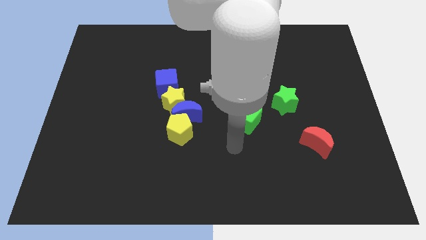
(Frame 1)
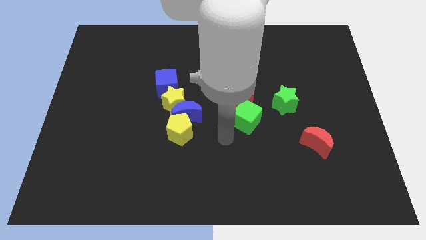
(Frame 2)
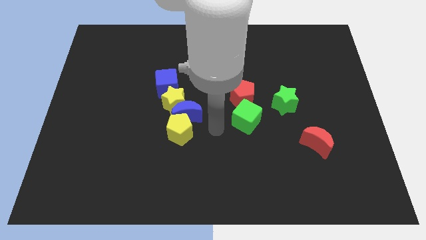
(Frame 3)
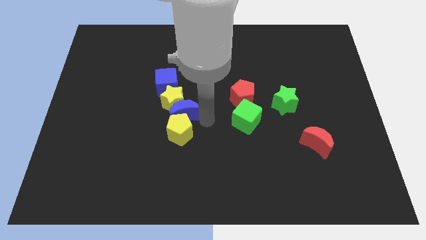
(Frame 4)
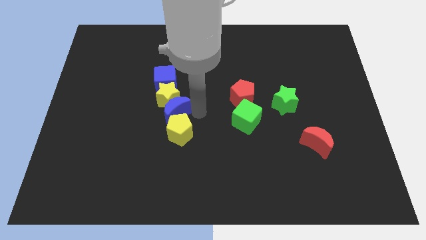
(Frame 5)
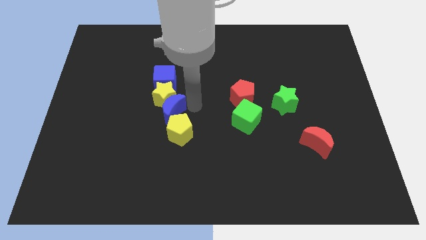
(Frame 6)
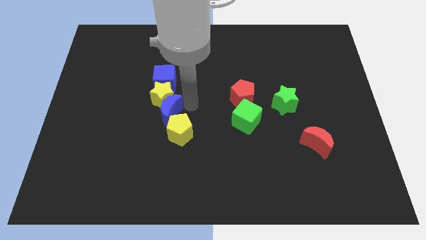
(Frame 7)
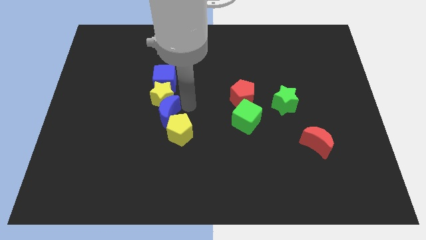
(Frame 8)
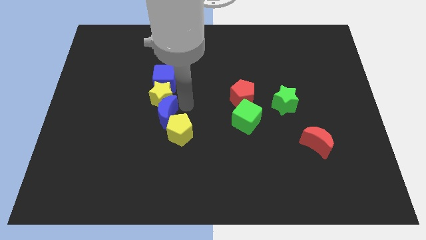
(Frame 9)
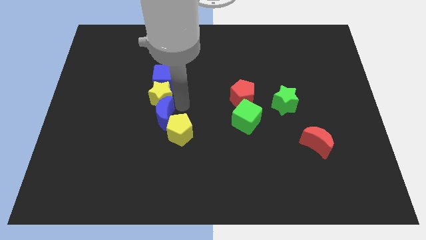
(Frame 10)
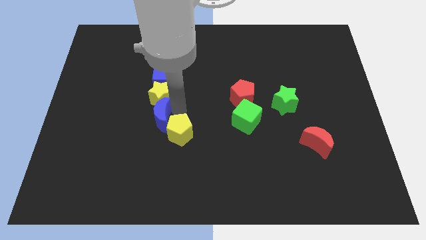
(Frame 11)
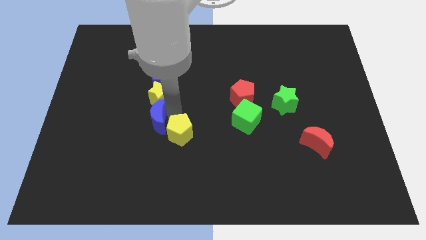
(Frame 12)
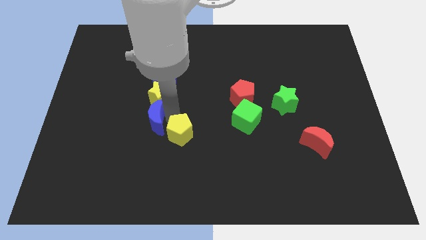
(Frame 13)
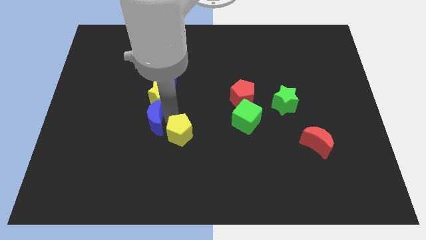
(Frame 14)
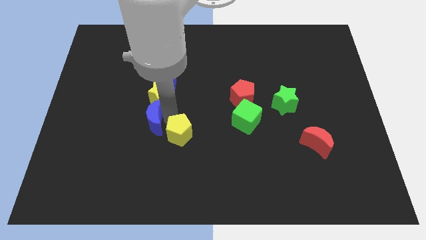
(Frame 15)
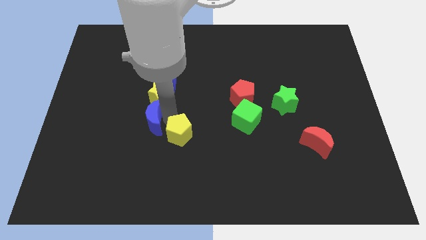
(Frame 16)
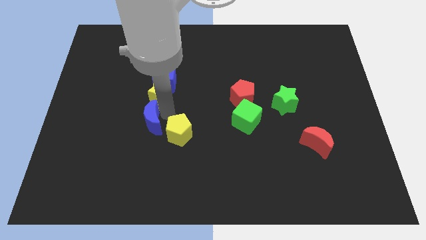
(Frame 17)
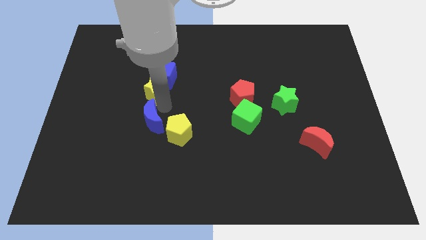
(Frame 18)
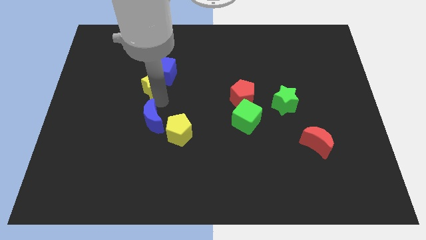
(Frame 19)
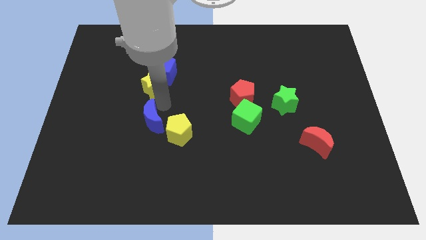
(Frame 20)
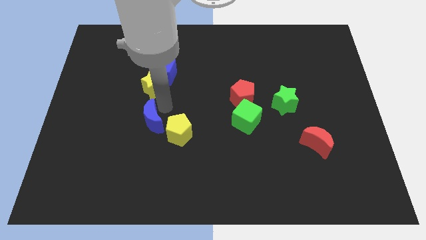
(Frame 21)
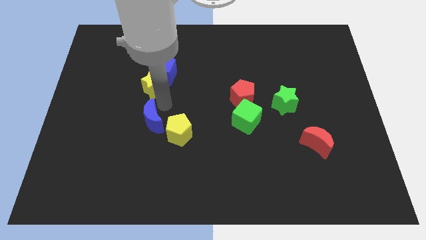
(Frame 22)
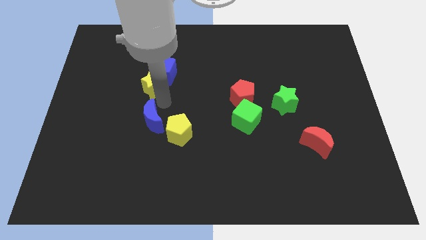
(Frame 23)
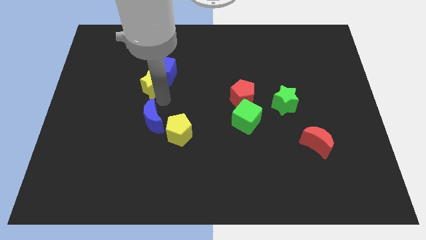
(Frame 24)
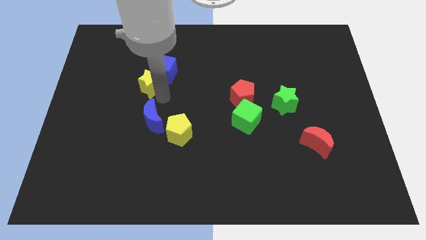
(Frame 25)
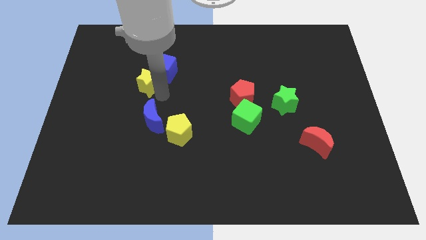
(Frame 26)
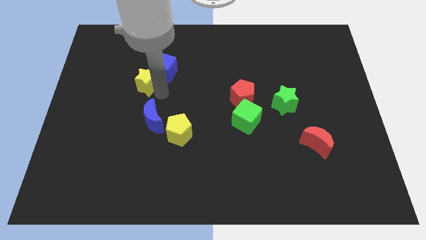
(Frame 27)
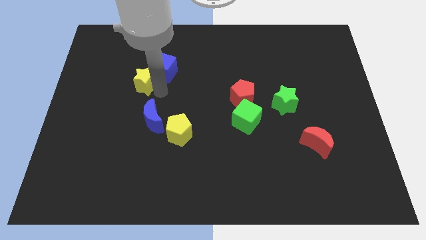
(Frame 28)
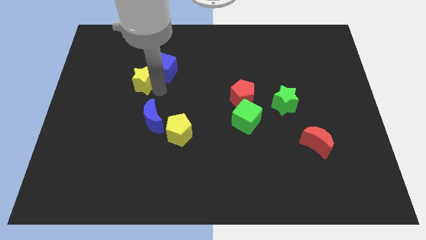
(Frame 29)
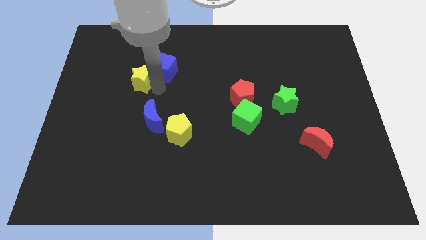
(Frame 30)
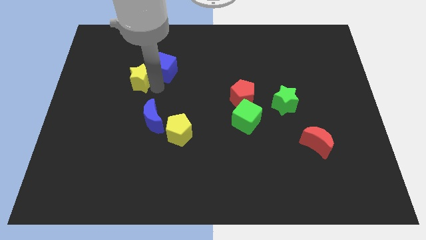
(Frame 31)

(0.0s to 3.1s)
separate the yellow star from the blue moon, blue cube, and yellow pentagon

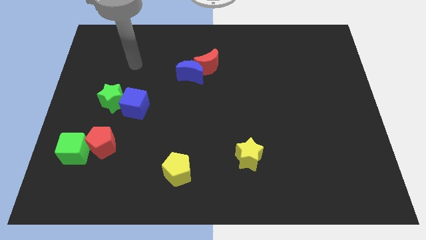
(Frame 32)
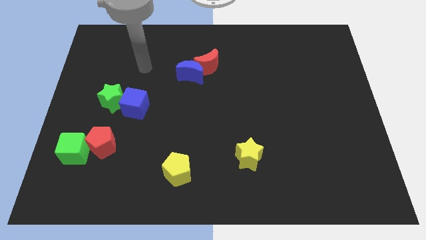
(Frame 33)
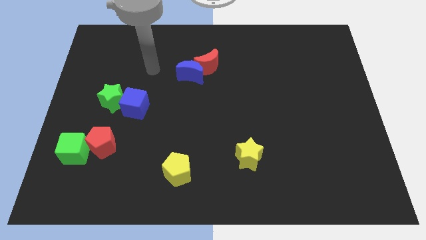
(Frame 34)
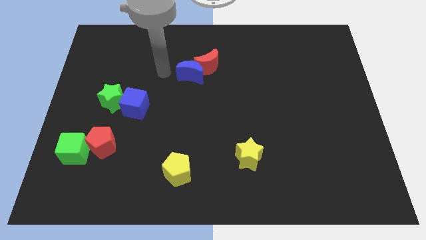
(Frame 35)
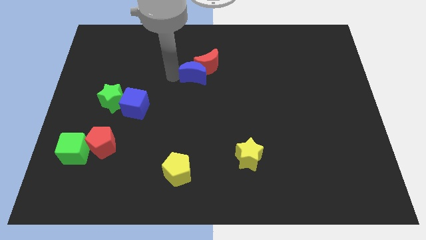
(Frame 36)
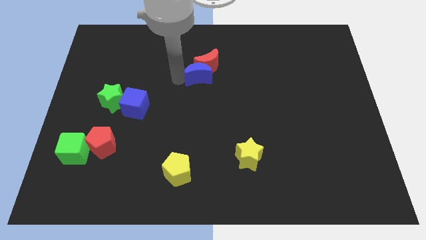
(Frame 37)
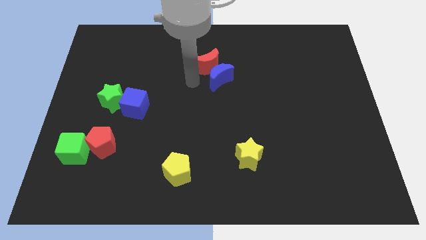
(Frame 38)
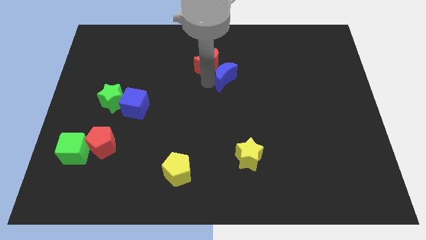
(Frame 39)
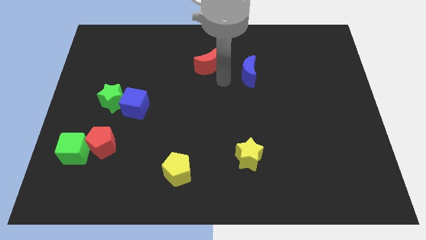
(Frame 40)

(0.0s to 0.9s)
separate the red moon from the blue moon

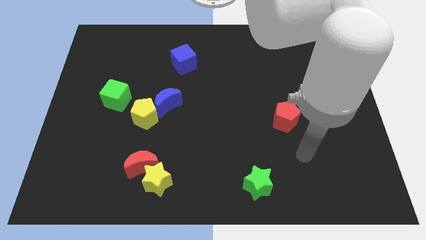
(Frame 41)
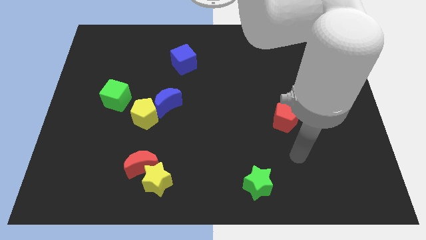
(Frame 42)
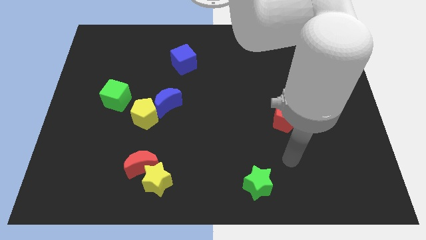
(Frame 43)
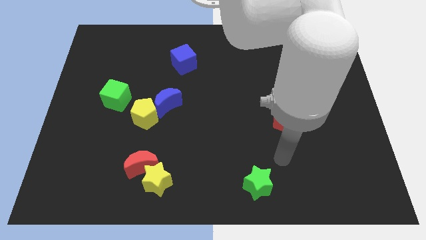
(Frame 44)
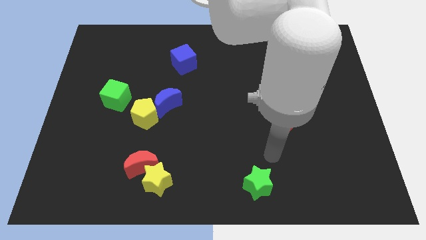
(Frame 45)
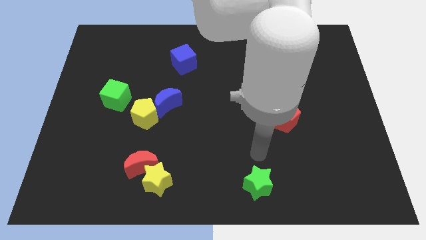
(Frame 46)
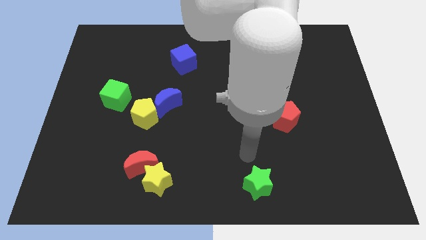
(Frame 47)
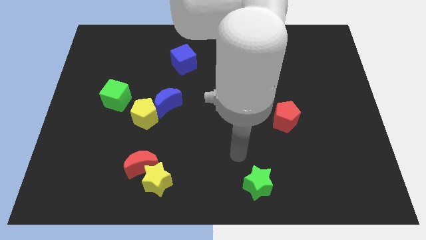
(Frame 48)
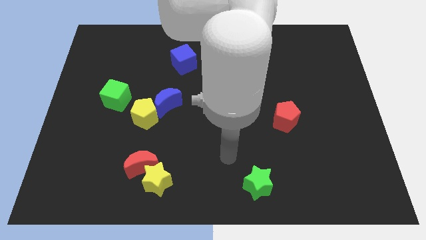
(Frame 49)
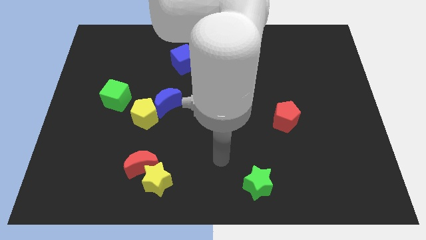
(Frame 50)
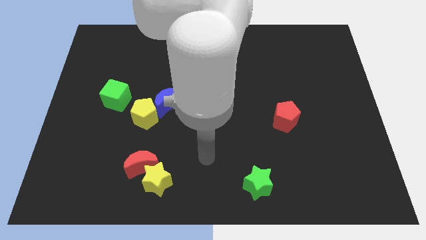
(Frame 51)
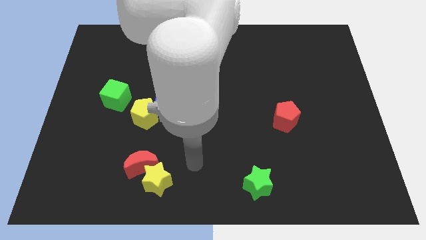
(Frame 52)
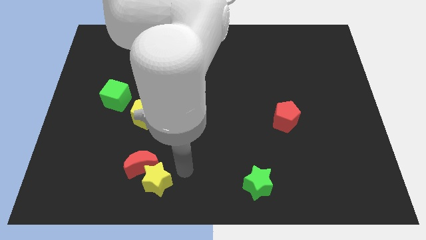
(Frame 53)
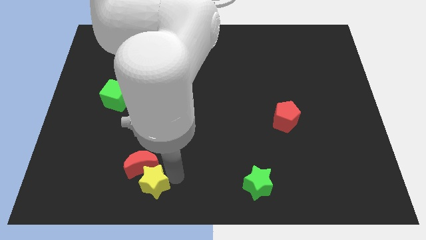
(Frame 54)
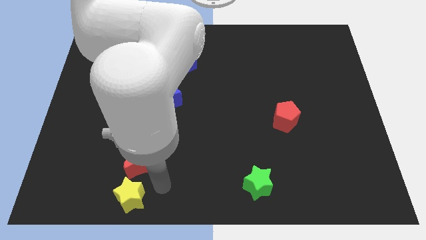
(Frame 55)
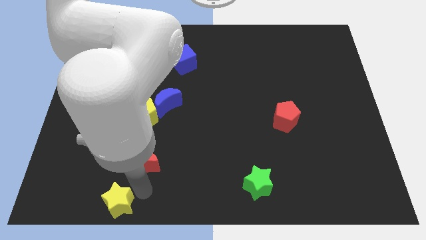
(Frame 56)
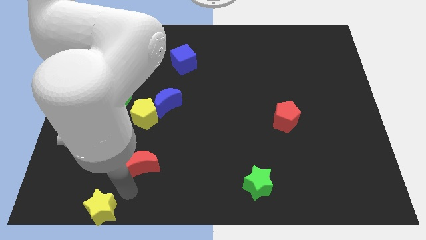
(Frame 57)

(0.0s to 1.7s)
move the red moon away from the yellow star

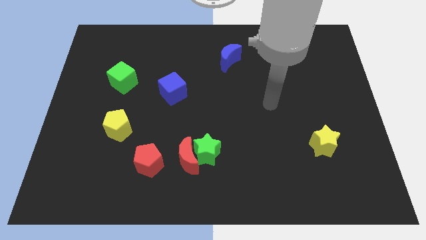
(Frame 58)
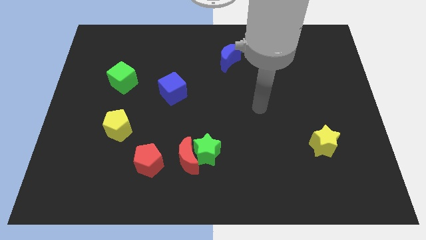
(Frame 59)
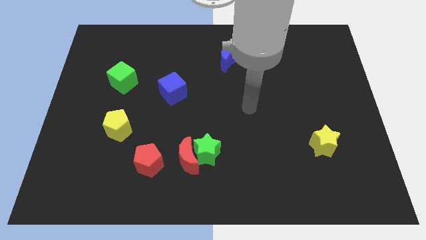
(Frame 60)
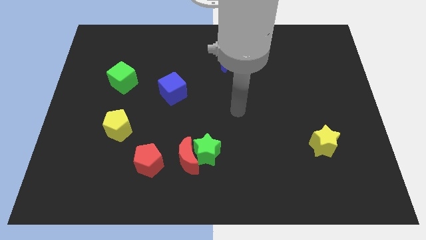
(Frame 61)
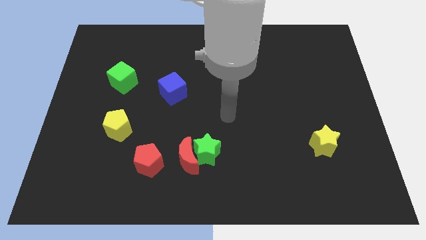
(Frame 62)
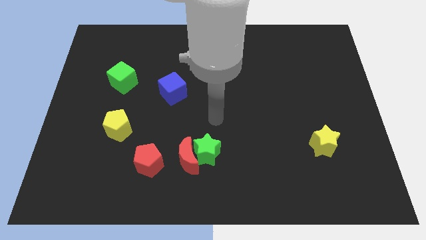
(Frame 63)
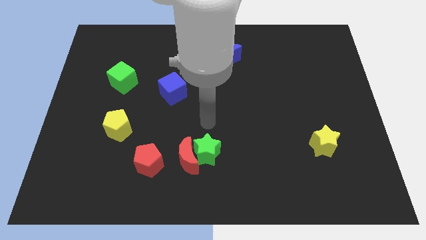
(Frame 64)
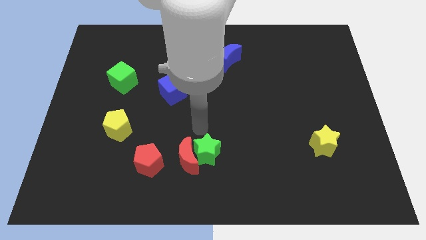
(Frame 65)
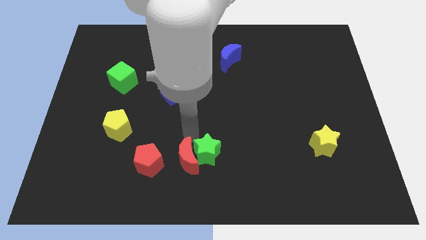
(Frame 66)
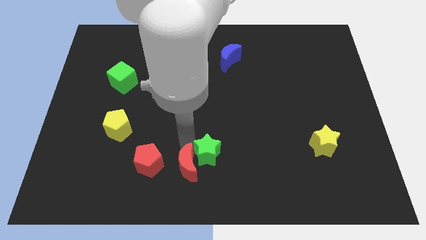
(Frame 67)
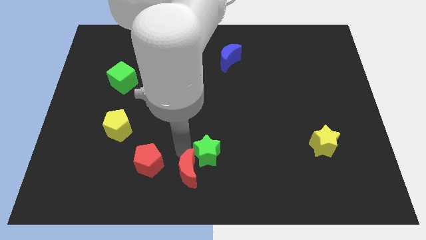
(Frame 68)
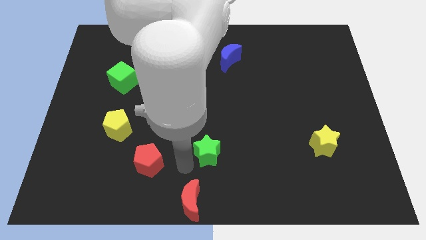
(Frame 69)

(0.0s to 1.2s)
separate the green star from the red moon

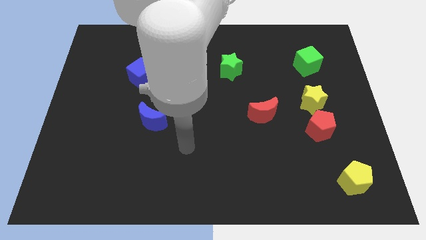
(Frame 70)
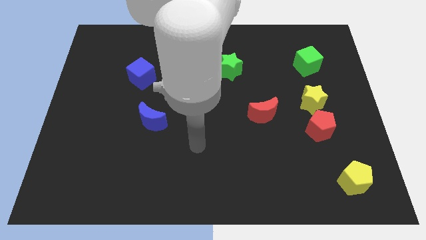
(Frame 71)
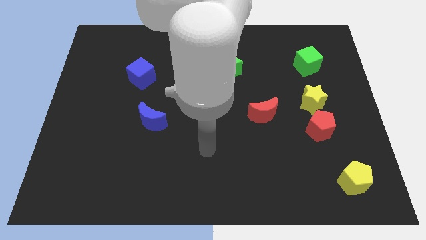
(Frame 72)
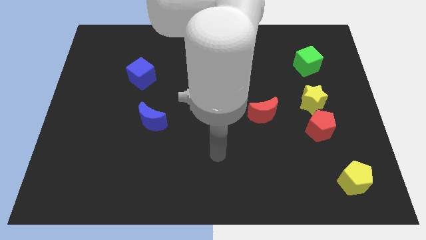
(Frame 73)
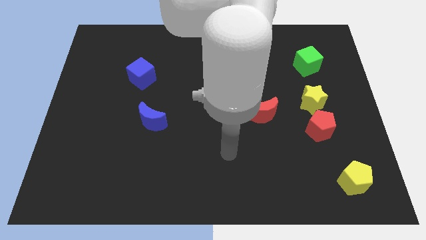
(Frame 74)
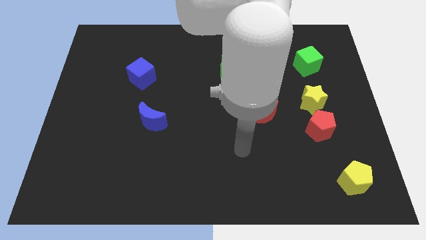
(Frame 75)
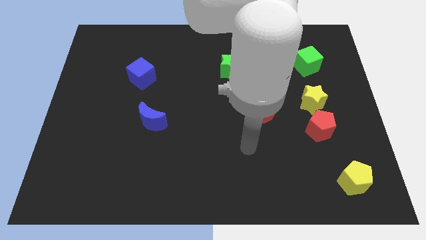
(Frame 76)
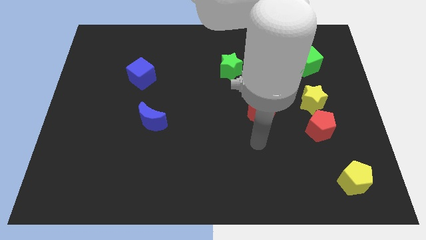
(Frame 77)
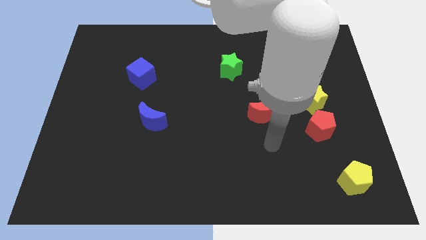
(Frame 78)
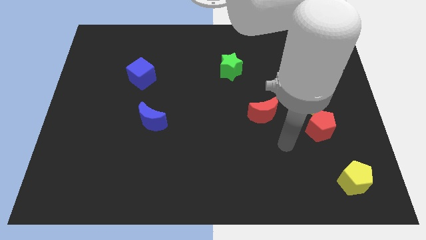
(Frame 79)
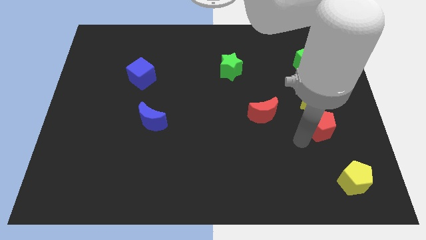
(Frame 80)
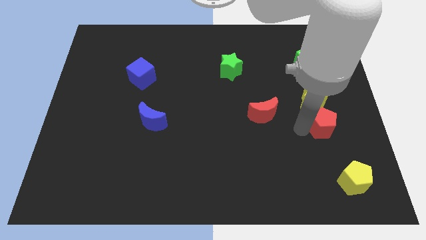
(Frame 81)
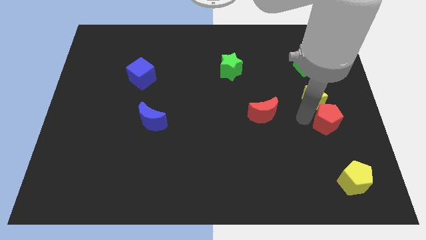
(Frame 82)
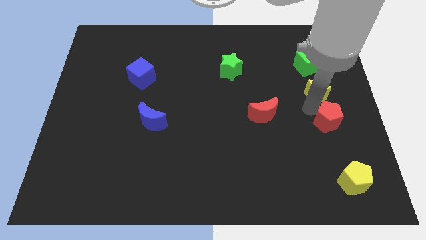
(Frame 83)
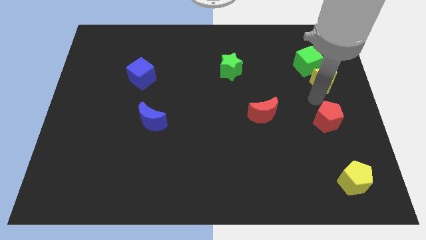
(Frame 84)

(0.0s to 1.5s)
pull the red pentagon apart from the yellow star

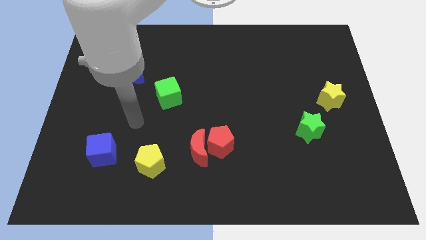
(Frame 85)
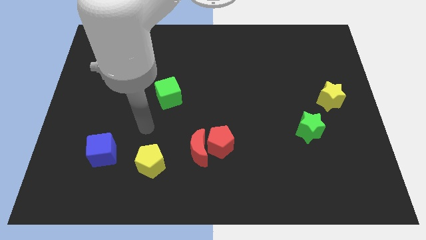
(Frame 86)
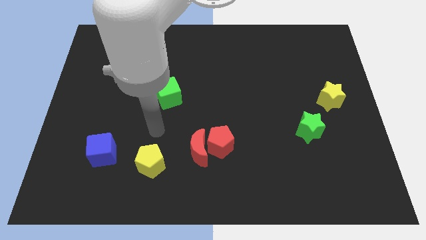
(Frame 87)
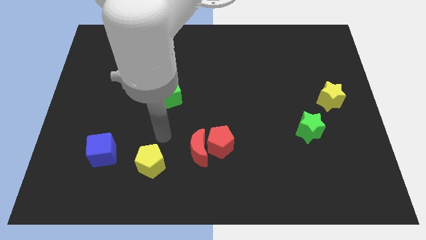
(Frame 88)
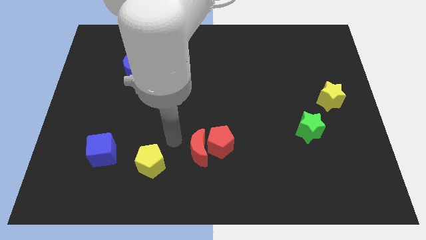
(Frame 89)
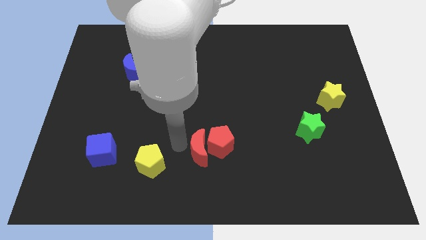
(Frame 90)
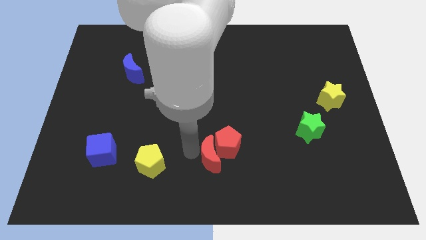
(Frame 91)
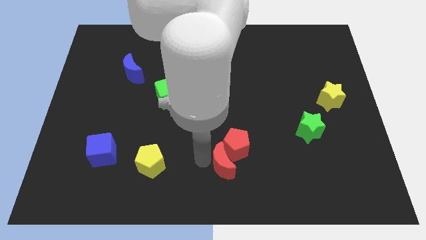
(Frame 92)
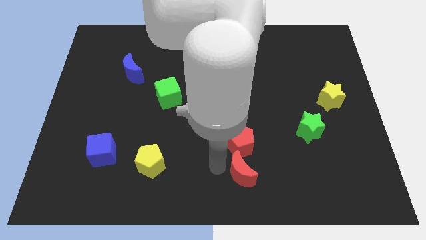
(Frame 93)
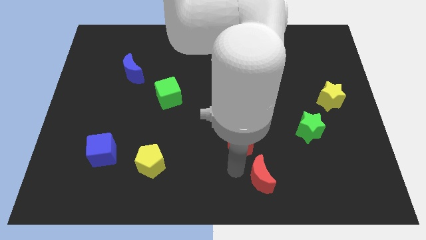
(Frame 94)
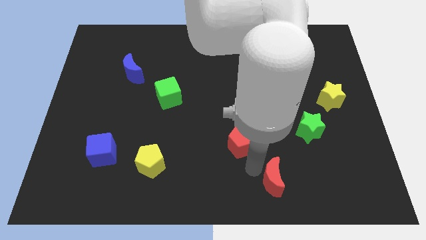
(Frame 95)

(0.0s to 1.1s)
pull the red pentagon apart from the red moon
